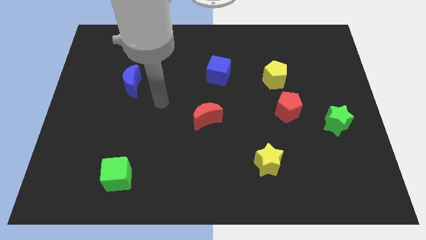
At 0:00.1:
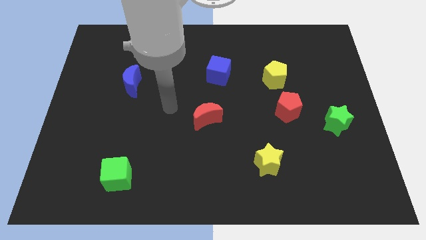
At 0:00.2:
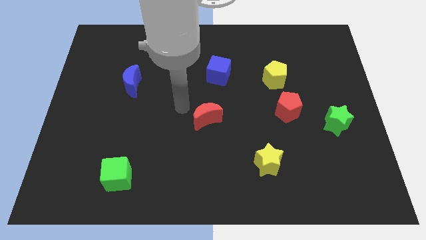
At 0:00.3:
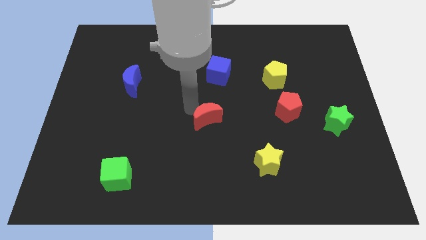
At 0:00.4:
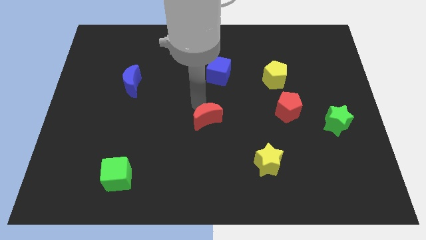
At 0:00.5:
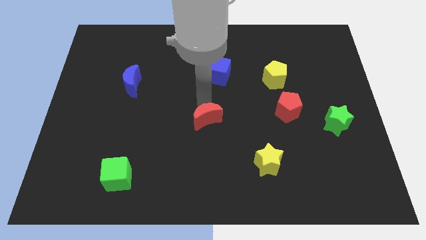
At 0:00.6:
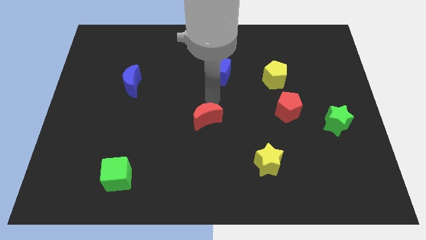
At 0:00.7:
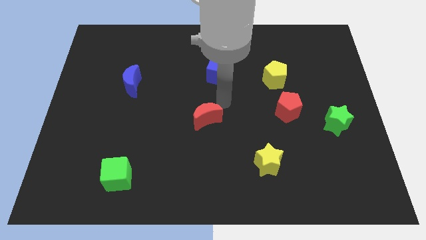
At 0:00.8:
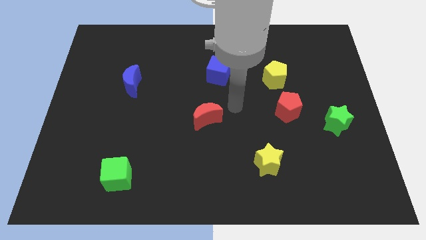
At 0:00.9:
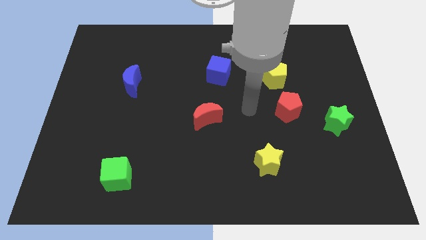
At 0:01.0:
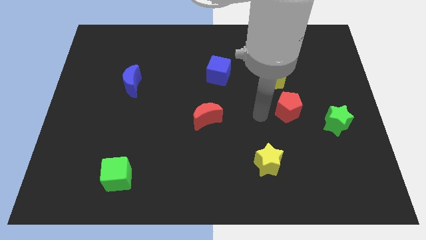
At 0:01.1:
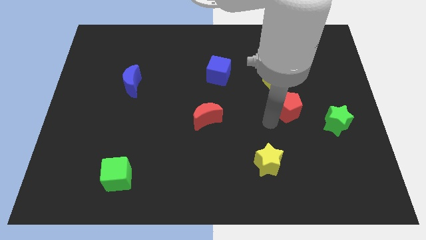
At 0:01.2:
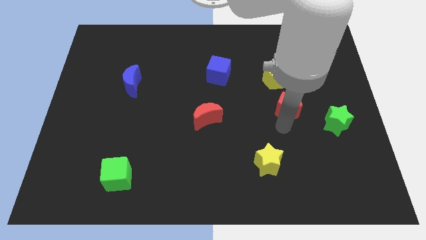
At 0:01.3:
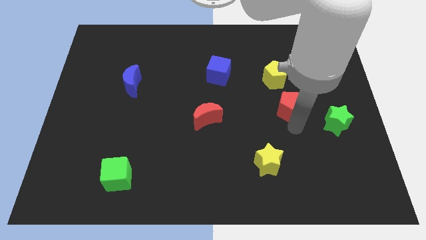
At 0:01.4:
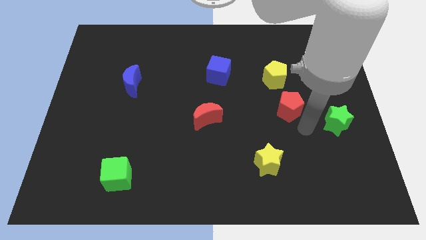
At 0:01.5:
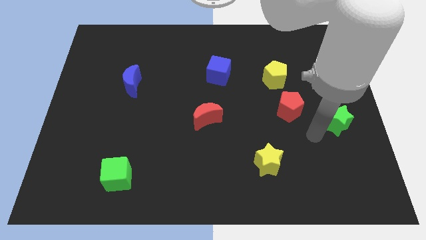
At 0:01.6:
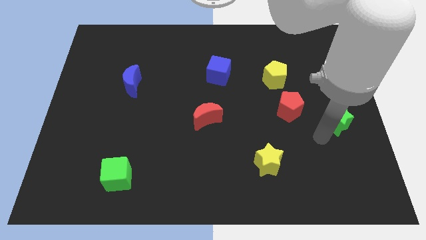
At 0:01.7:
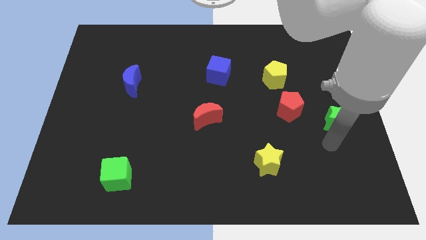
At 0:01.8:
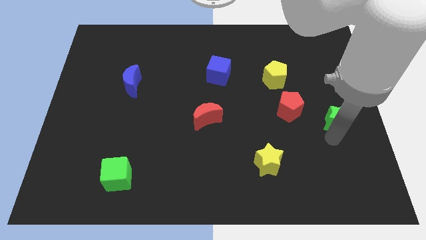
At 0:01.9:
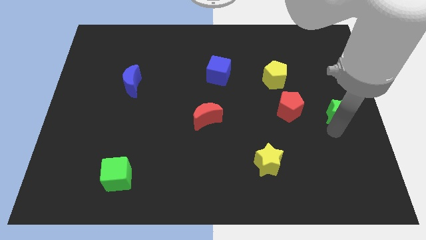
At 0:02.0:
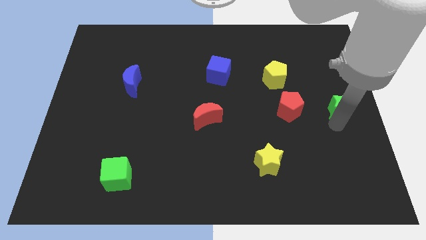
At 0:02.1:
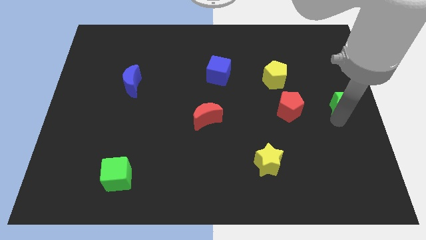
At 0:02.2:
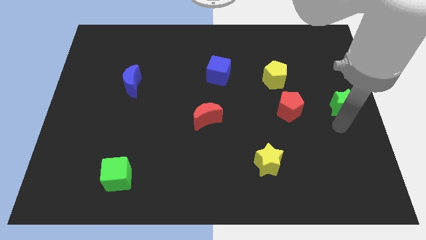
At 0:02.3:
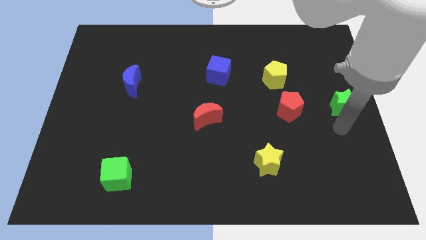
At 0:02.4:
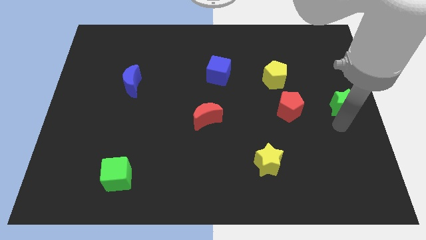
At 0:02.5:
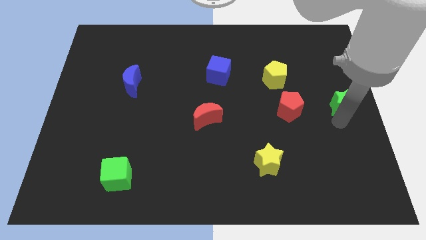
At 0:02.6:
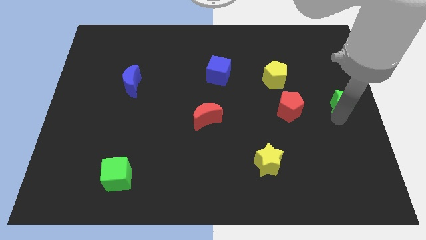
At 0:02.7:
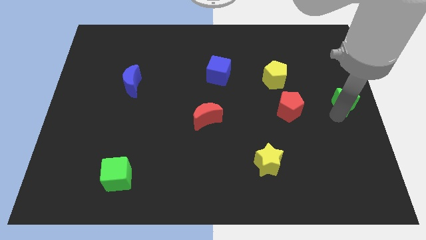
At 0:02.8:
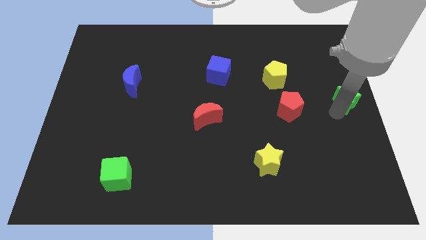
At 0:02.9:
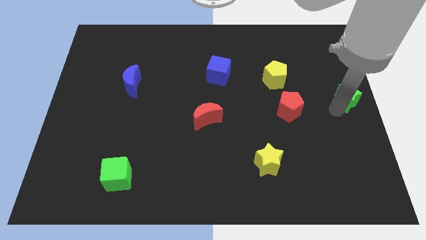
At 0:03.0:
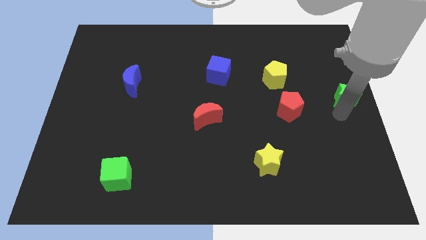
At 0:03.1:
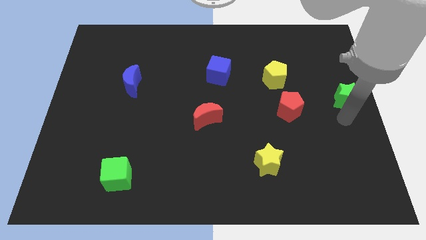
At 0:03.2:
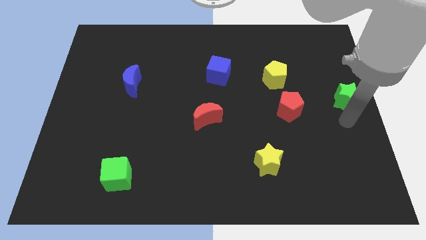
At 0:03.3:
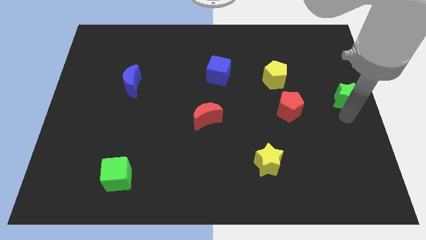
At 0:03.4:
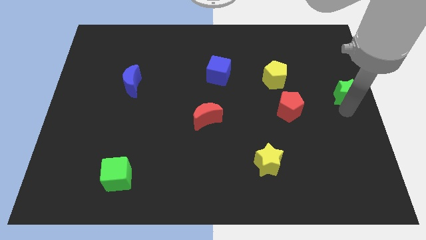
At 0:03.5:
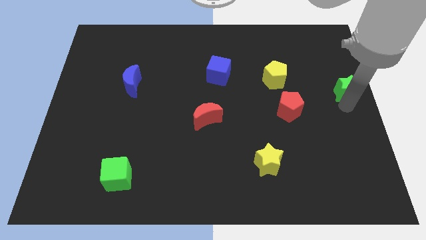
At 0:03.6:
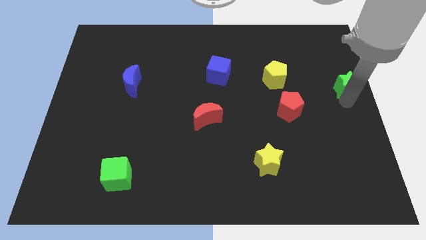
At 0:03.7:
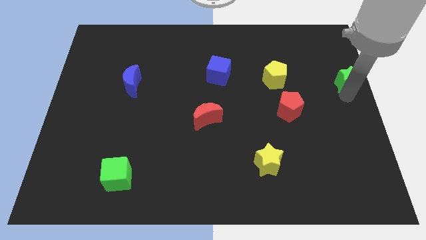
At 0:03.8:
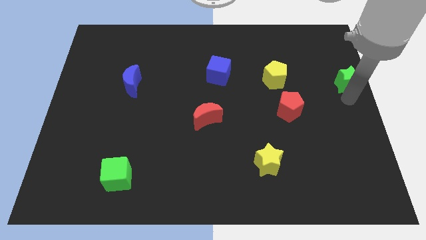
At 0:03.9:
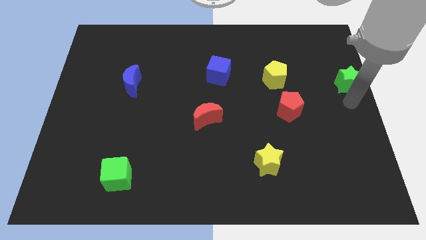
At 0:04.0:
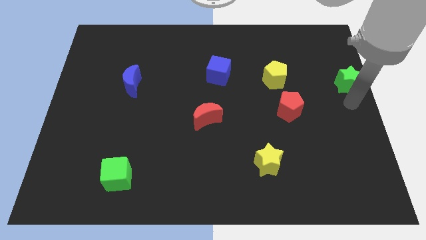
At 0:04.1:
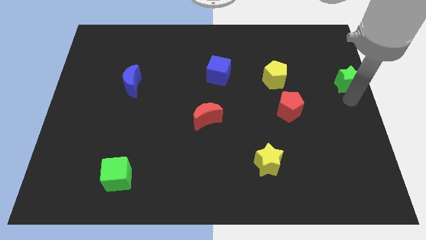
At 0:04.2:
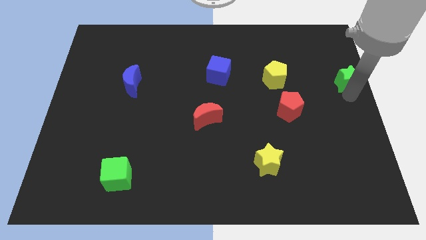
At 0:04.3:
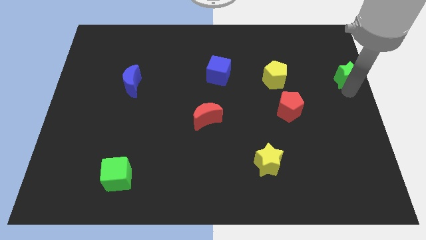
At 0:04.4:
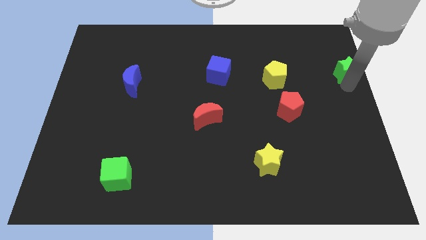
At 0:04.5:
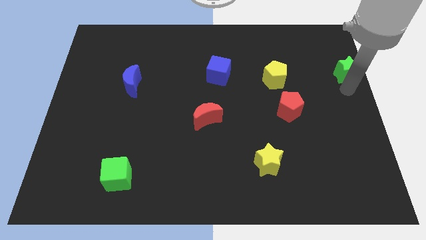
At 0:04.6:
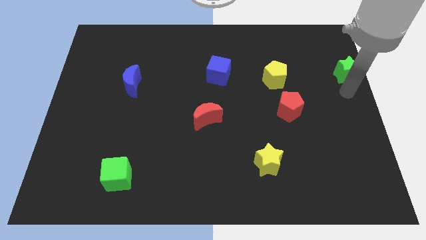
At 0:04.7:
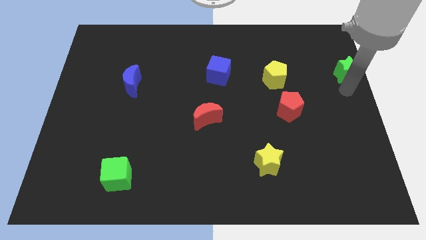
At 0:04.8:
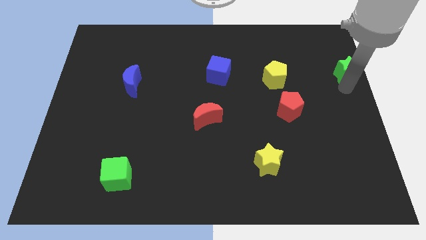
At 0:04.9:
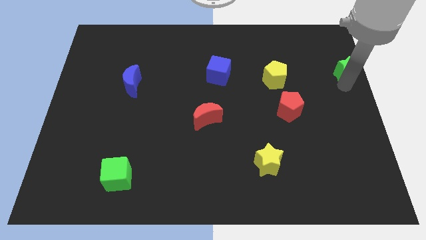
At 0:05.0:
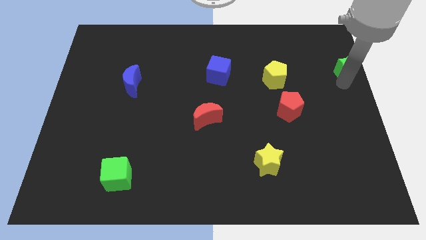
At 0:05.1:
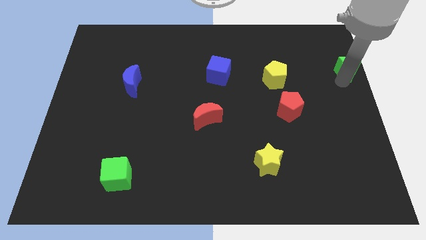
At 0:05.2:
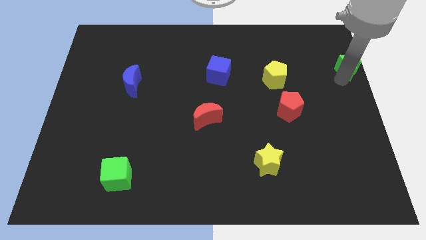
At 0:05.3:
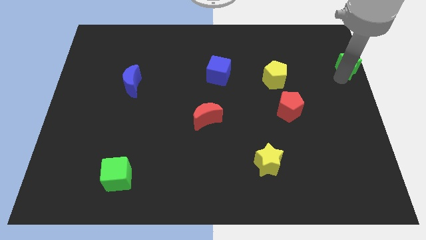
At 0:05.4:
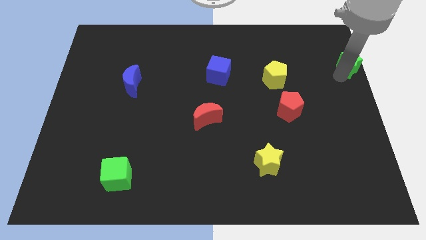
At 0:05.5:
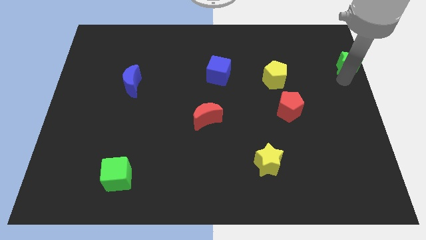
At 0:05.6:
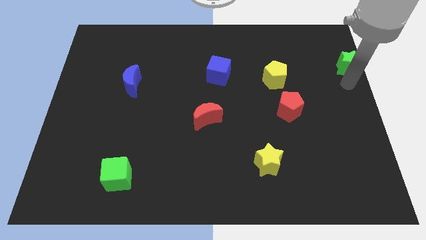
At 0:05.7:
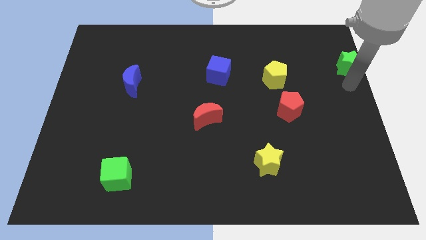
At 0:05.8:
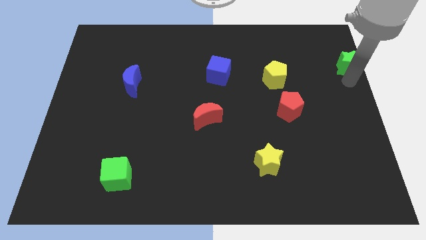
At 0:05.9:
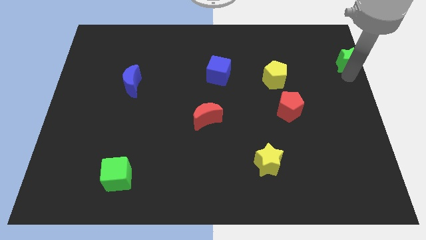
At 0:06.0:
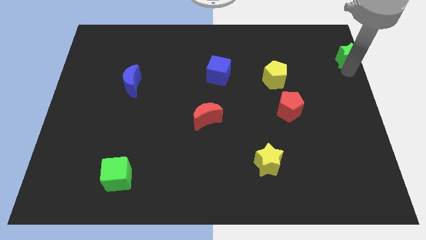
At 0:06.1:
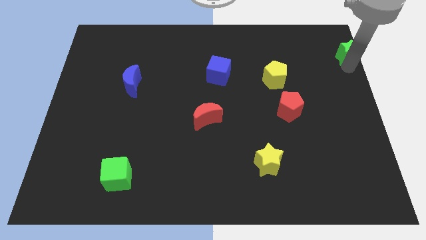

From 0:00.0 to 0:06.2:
push the green star to the top right of the board
